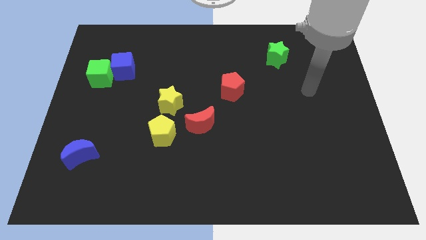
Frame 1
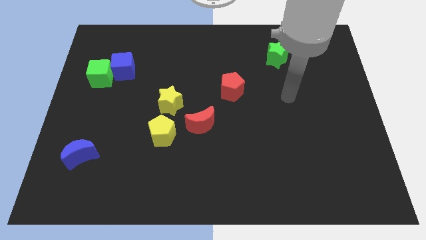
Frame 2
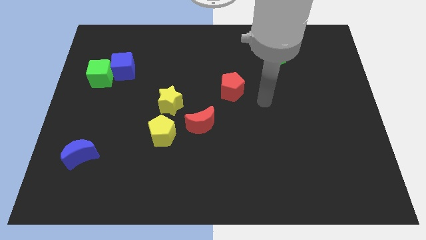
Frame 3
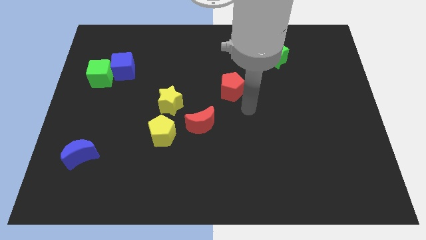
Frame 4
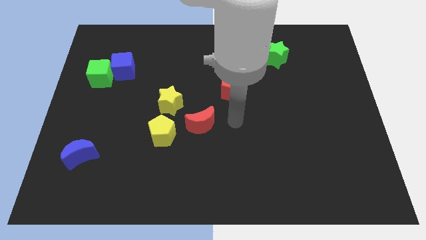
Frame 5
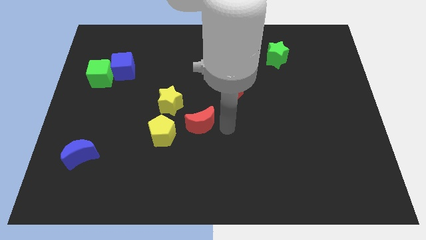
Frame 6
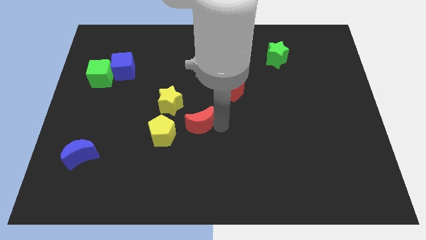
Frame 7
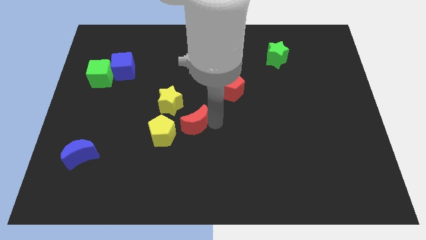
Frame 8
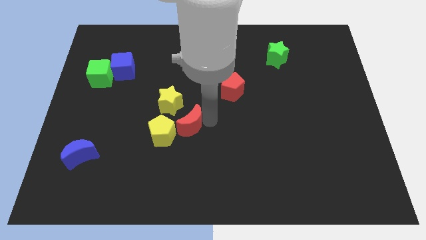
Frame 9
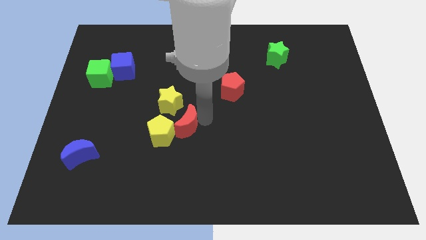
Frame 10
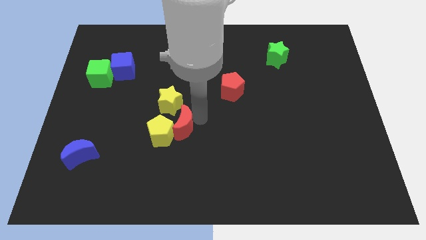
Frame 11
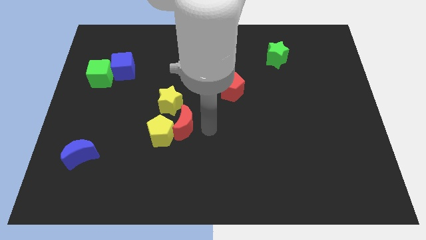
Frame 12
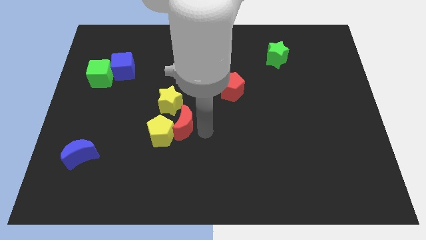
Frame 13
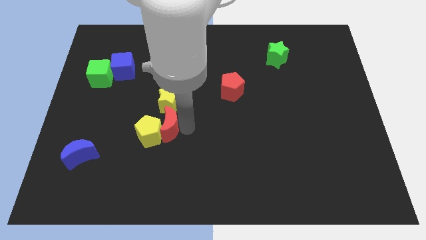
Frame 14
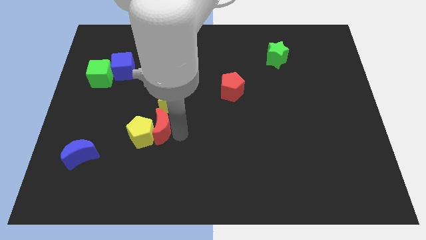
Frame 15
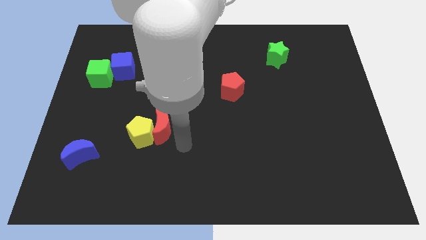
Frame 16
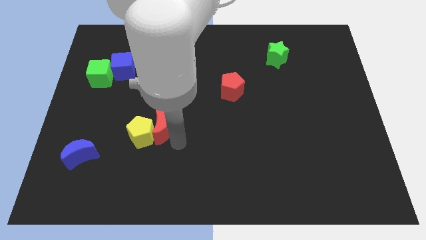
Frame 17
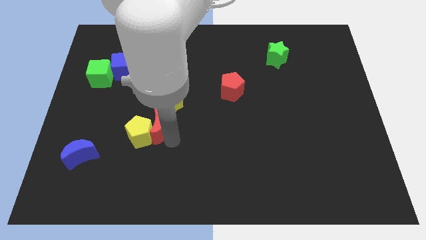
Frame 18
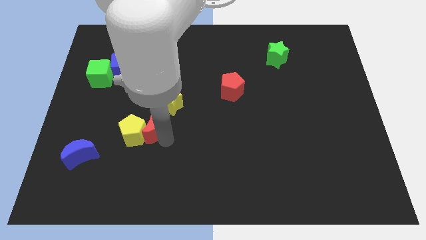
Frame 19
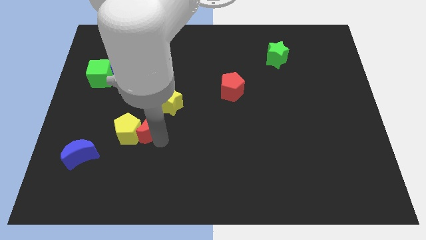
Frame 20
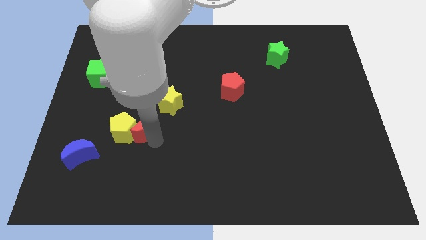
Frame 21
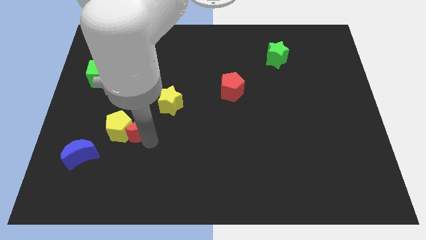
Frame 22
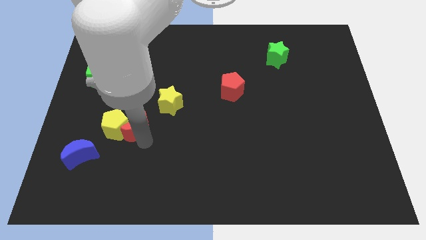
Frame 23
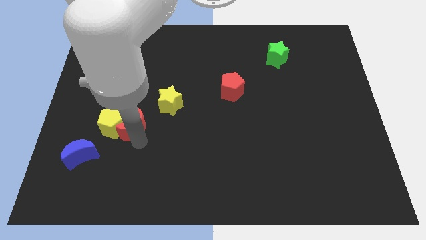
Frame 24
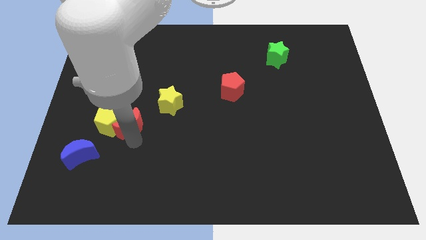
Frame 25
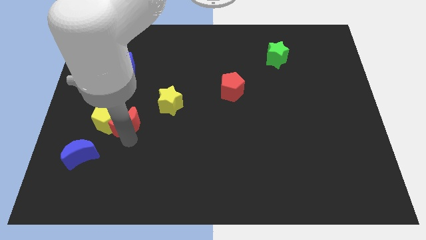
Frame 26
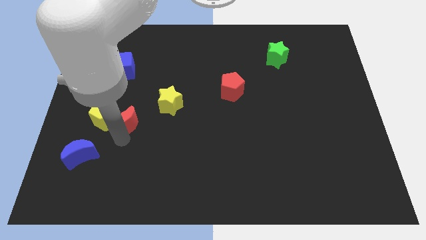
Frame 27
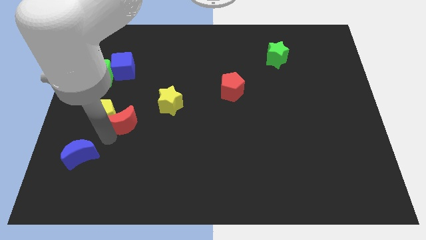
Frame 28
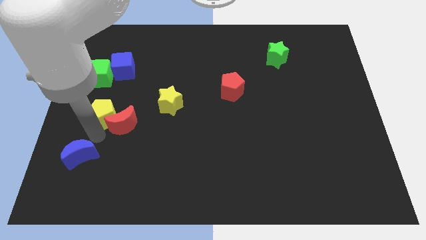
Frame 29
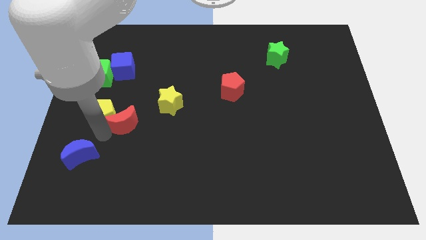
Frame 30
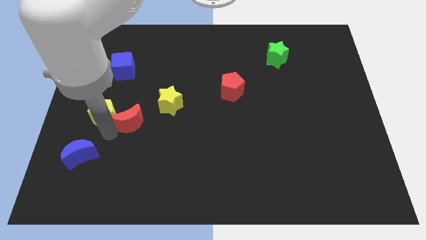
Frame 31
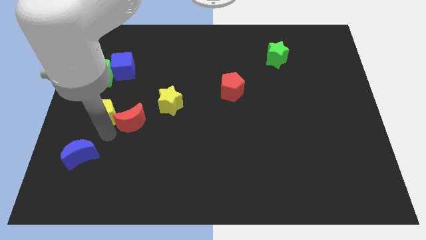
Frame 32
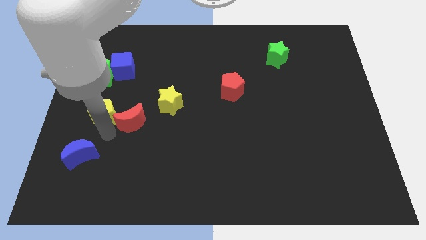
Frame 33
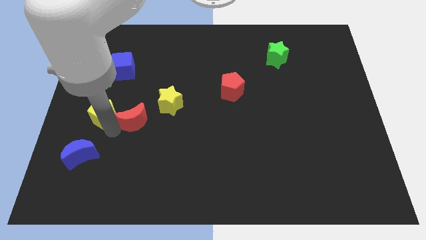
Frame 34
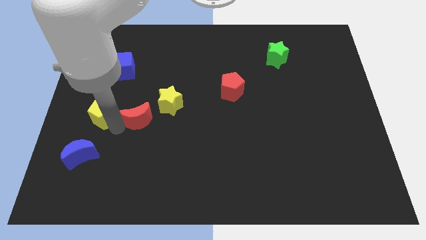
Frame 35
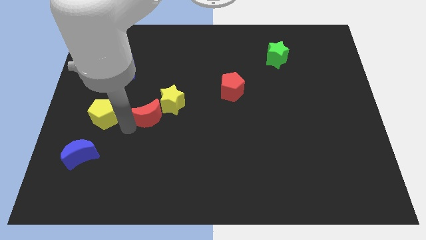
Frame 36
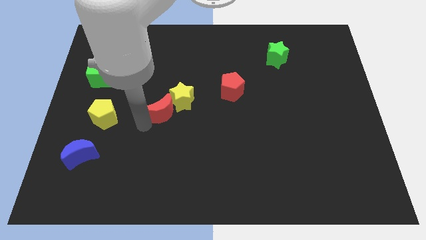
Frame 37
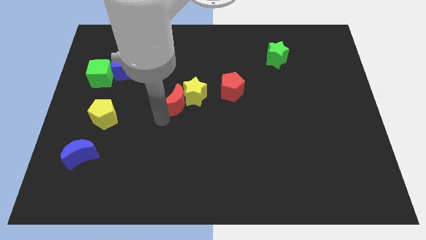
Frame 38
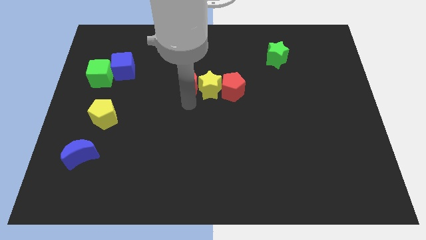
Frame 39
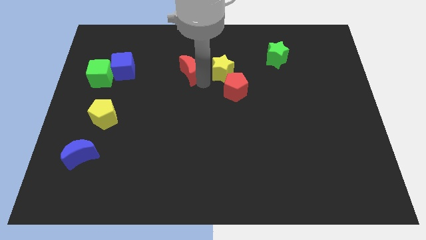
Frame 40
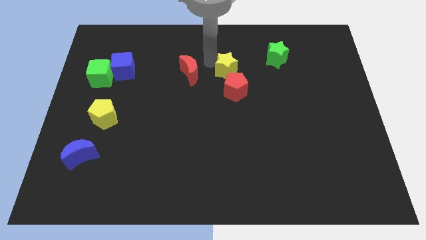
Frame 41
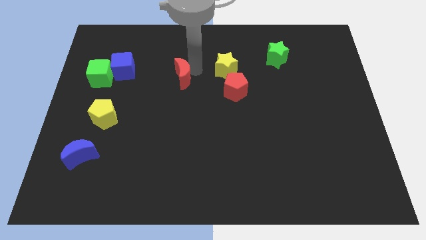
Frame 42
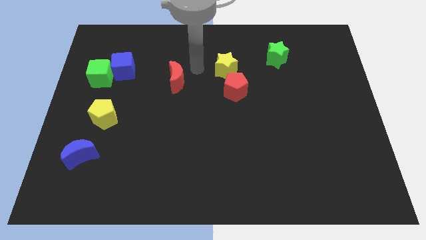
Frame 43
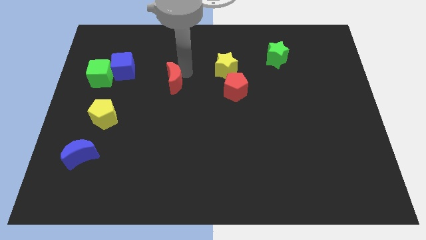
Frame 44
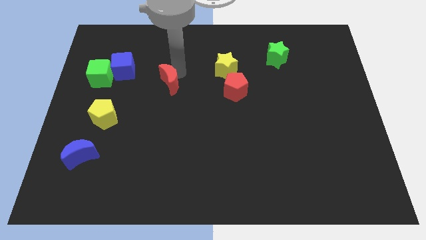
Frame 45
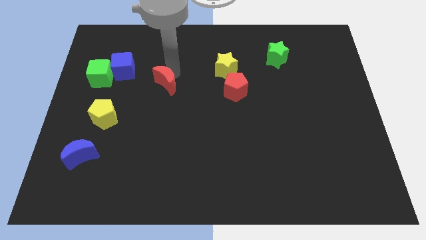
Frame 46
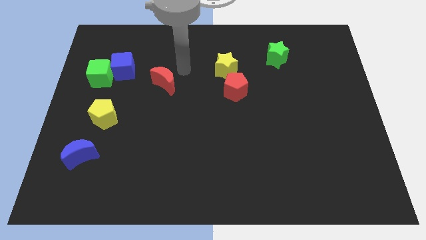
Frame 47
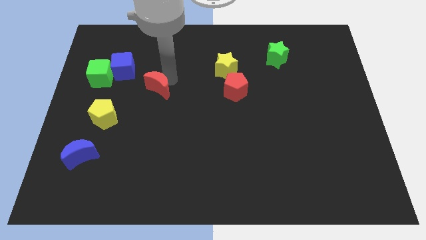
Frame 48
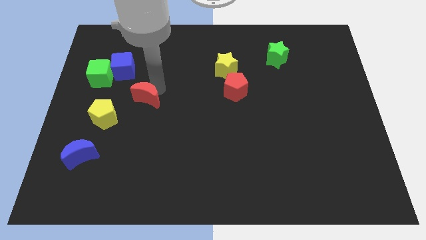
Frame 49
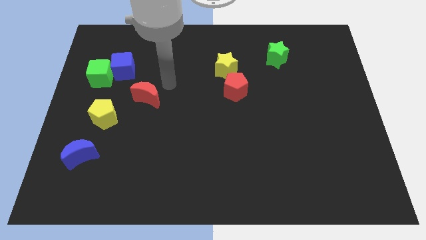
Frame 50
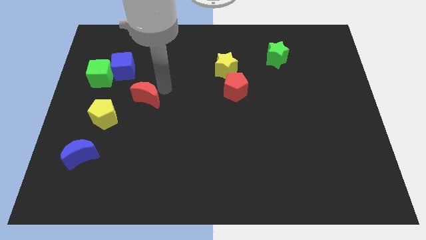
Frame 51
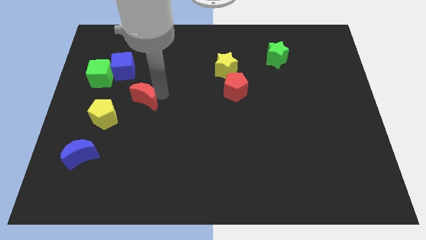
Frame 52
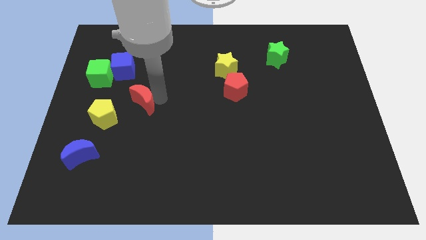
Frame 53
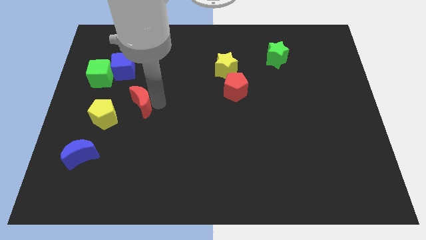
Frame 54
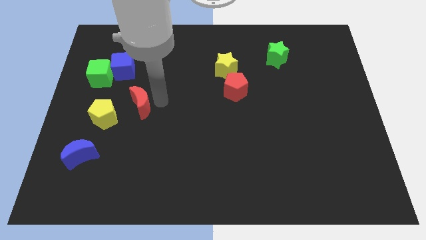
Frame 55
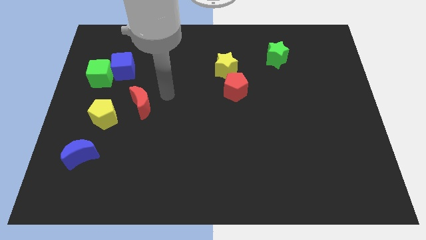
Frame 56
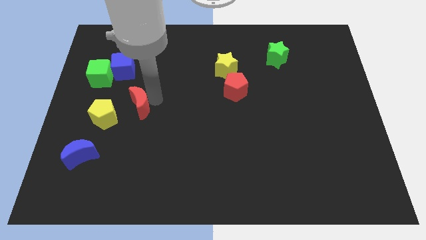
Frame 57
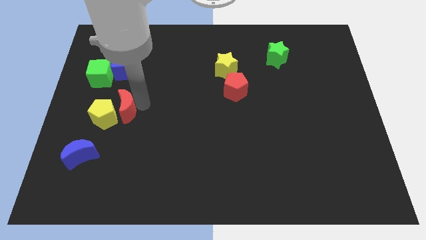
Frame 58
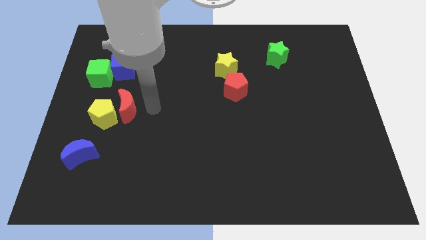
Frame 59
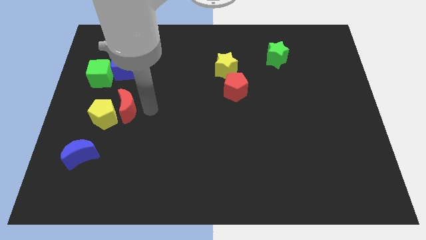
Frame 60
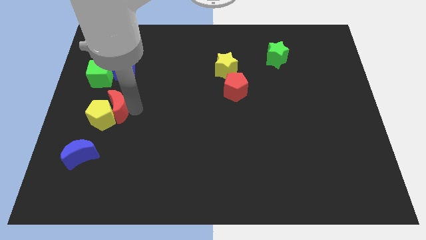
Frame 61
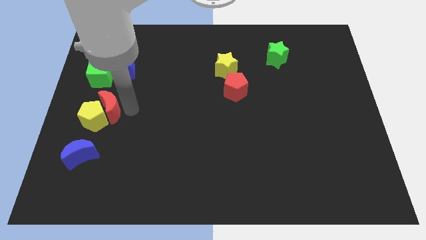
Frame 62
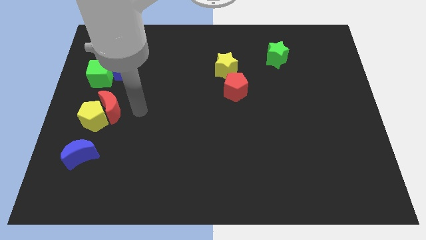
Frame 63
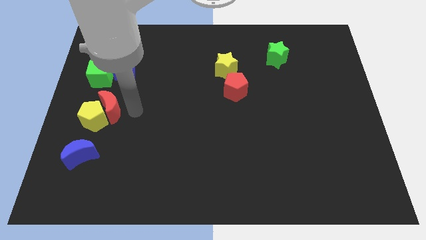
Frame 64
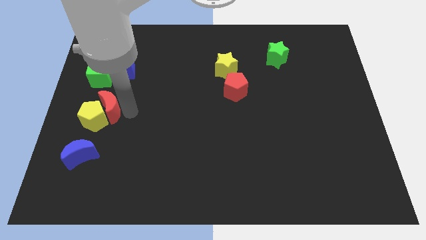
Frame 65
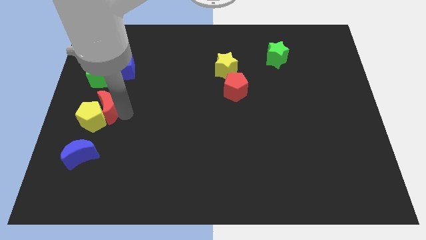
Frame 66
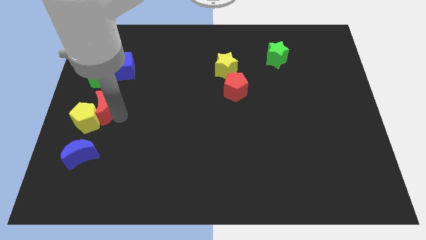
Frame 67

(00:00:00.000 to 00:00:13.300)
slide the red moon to the left side of the board

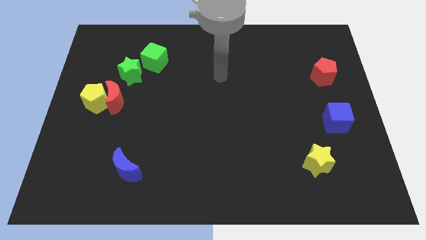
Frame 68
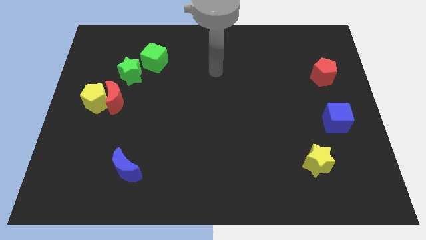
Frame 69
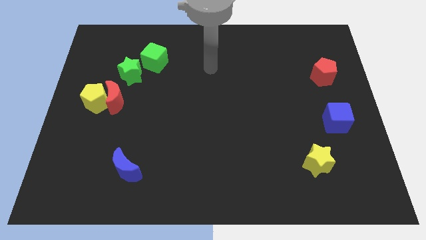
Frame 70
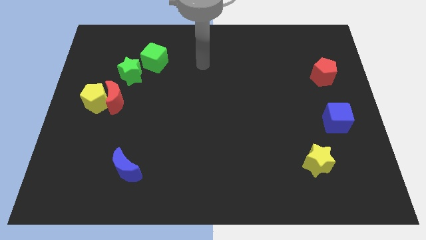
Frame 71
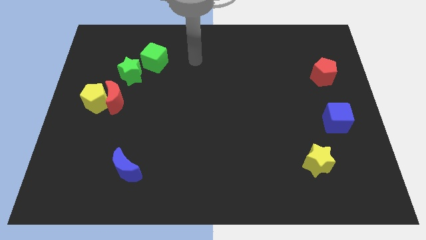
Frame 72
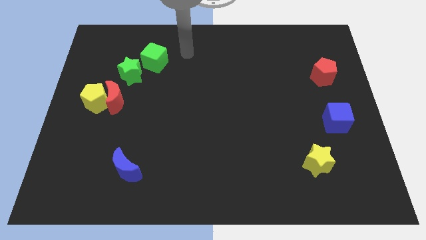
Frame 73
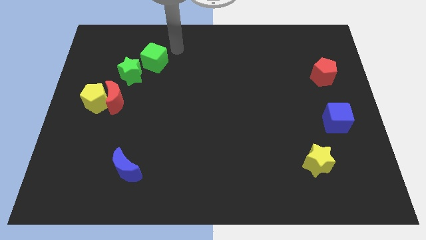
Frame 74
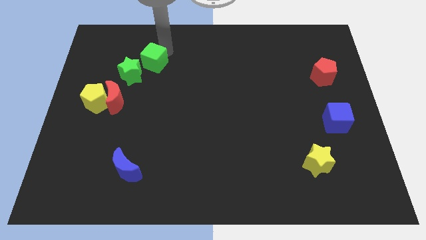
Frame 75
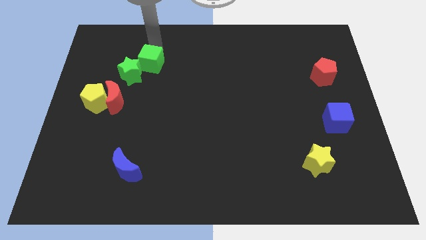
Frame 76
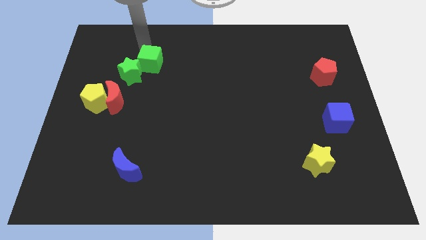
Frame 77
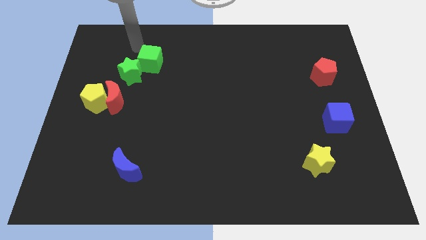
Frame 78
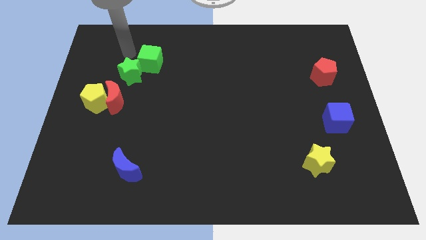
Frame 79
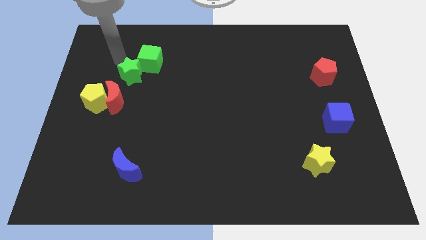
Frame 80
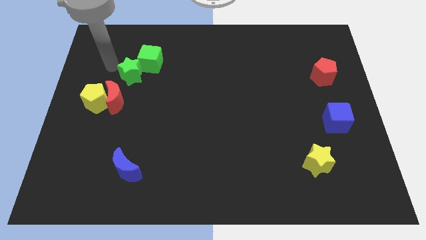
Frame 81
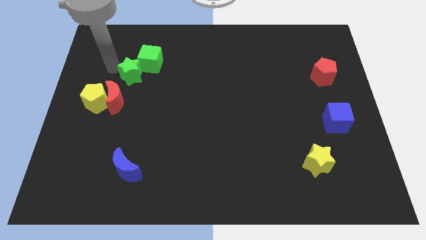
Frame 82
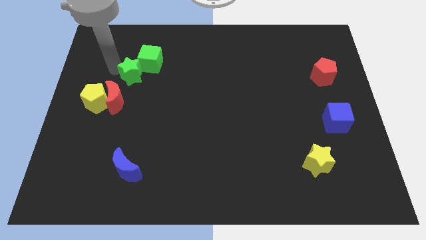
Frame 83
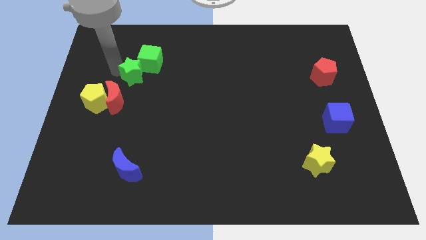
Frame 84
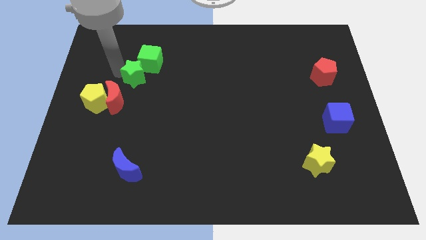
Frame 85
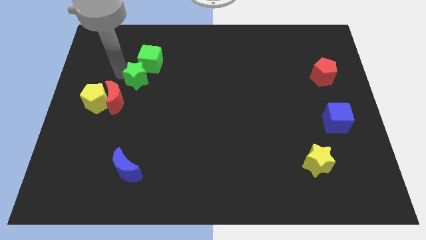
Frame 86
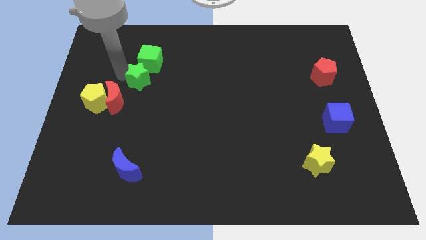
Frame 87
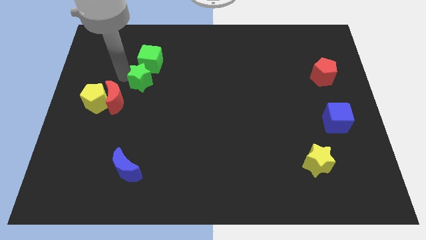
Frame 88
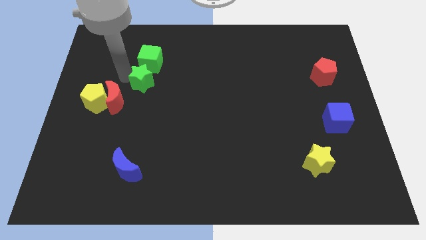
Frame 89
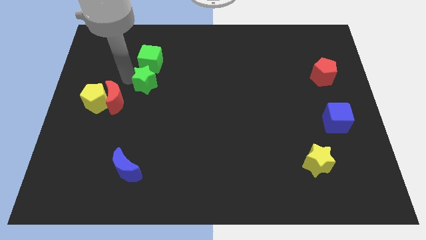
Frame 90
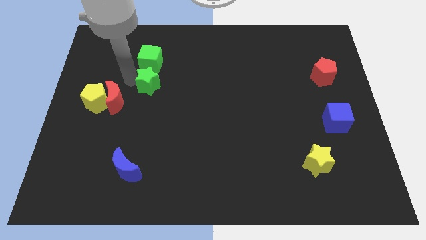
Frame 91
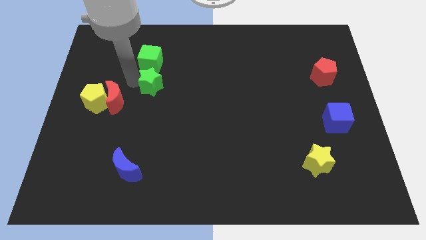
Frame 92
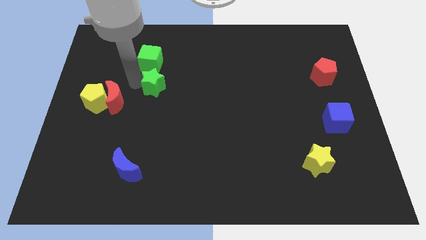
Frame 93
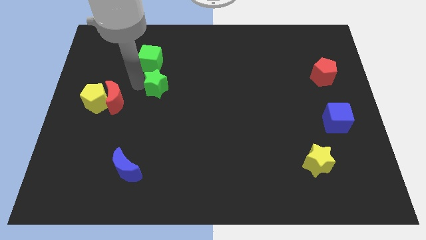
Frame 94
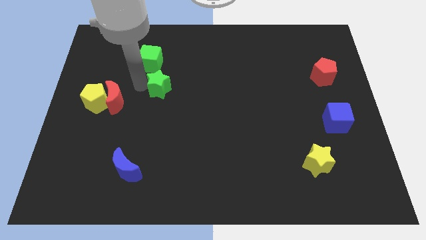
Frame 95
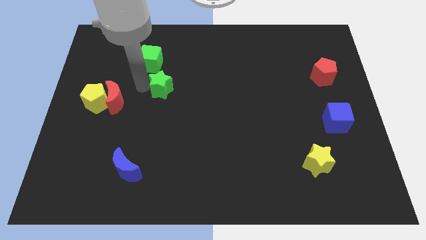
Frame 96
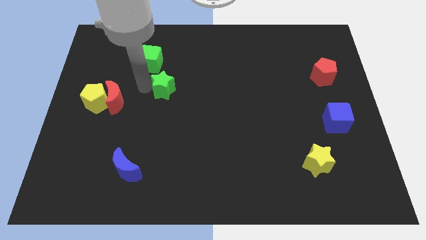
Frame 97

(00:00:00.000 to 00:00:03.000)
slide the green star to the center
